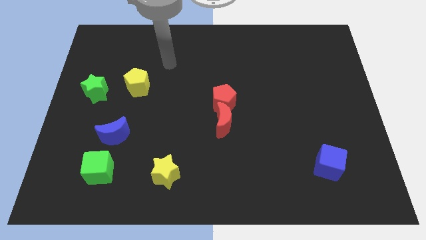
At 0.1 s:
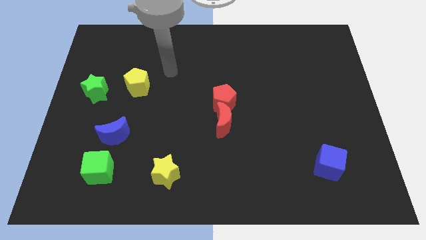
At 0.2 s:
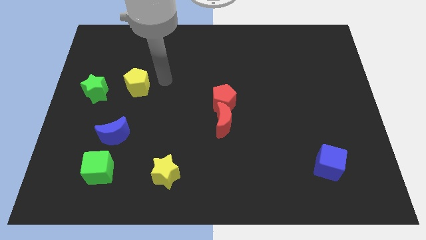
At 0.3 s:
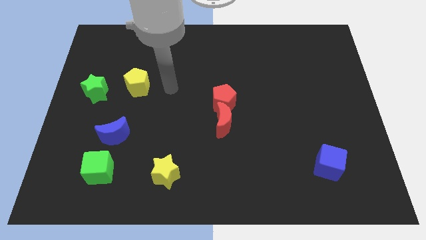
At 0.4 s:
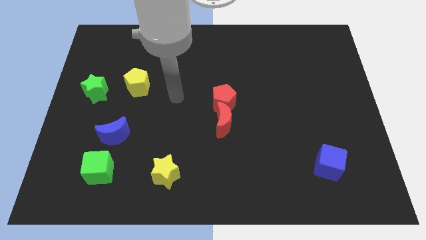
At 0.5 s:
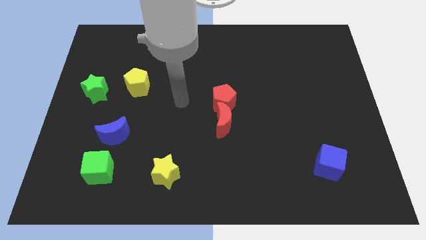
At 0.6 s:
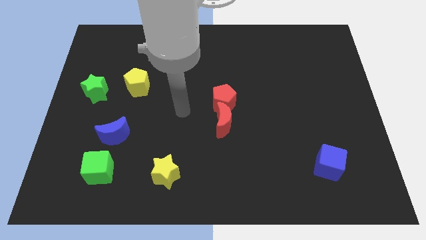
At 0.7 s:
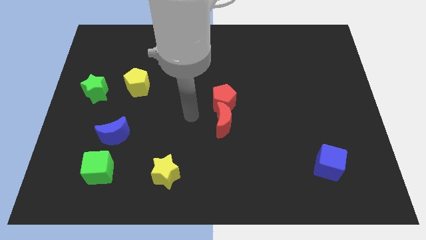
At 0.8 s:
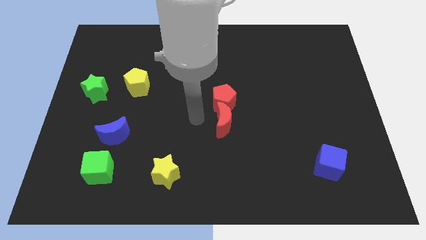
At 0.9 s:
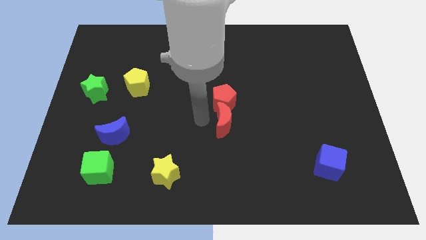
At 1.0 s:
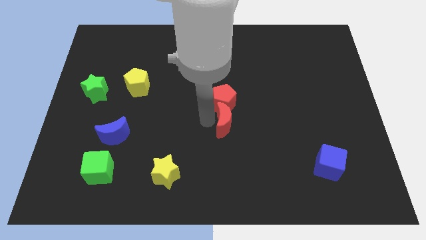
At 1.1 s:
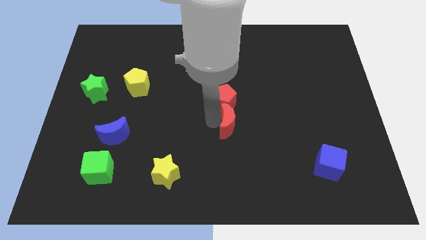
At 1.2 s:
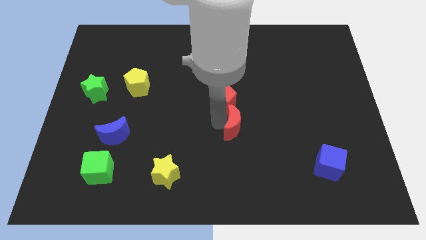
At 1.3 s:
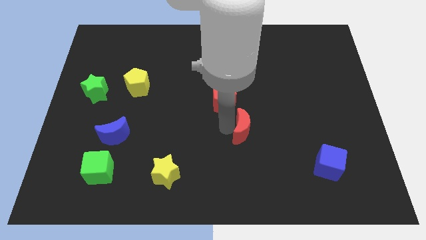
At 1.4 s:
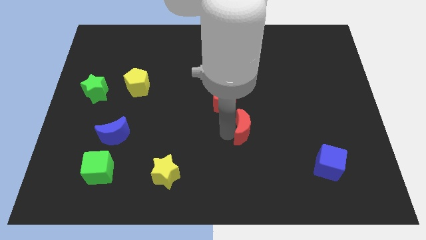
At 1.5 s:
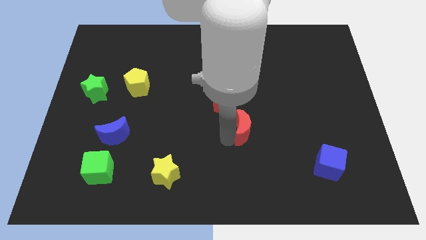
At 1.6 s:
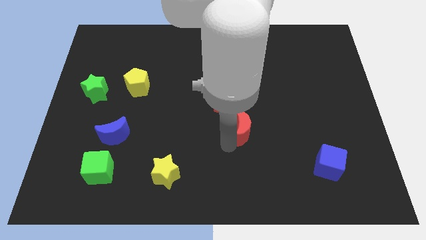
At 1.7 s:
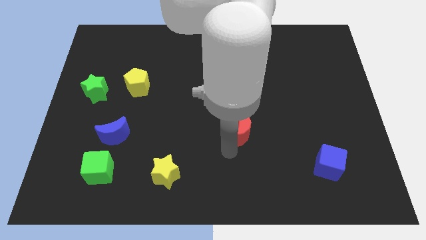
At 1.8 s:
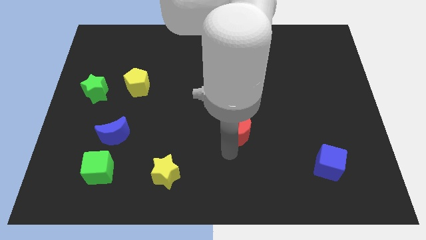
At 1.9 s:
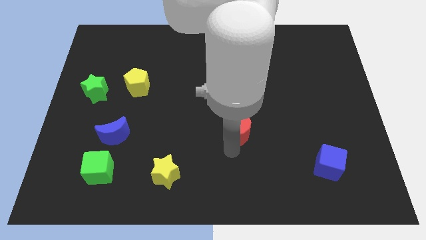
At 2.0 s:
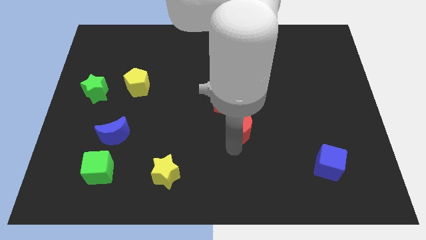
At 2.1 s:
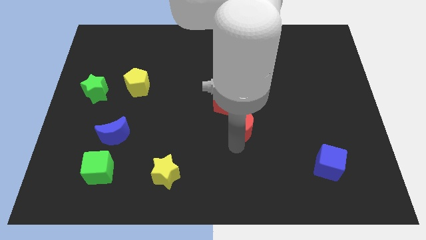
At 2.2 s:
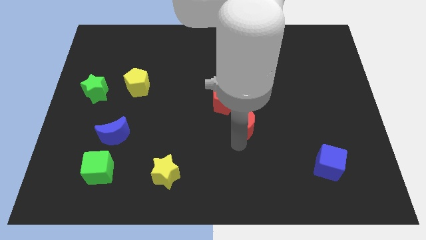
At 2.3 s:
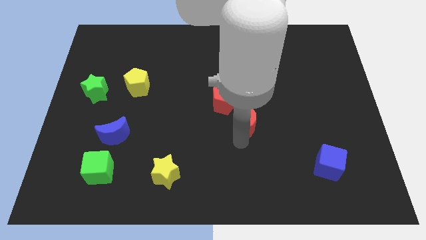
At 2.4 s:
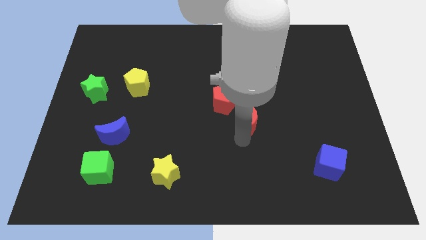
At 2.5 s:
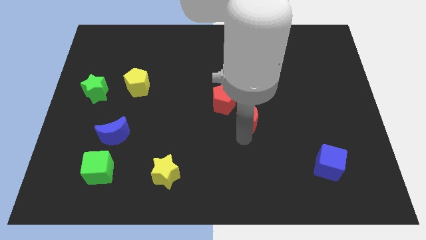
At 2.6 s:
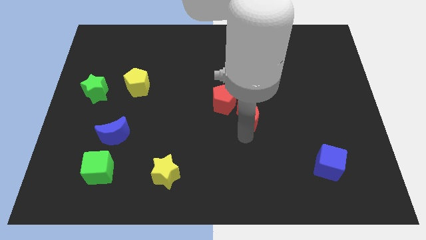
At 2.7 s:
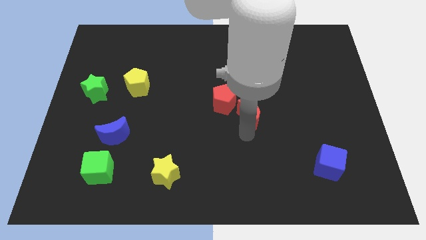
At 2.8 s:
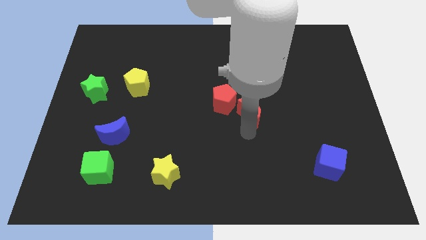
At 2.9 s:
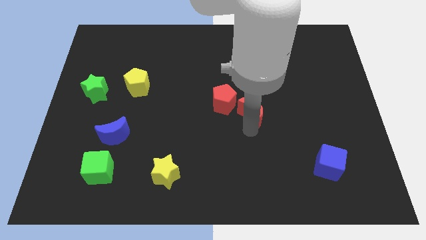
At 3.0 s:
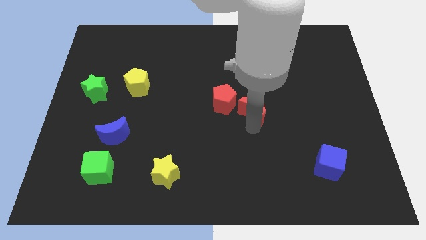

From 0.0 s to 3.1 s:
slightly push the red moon diagonally up and to the right

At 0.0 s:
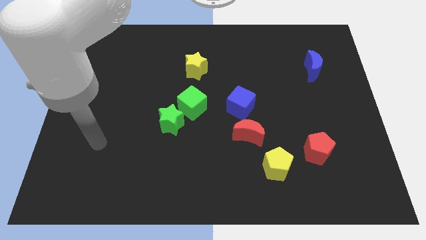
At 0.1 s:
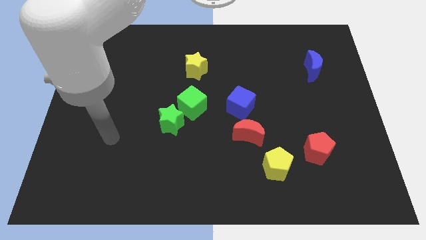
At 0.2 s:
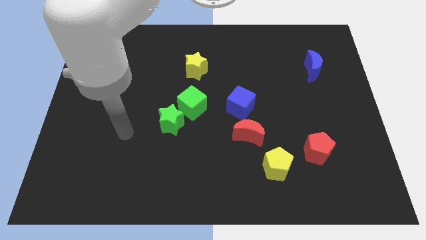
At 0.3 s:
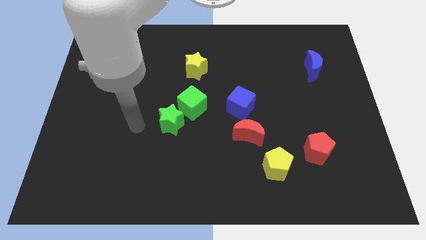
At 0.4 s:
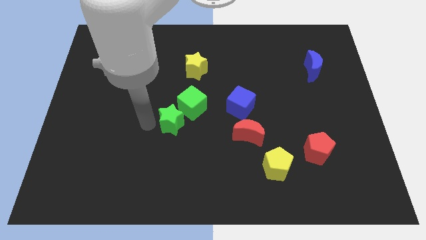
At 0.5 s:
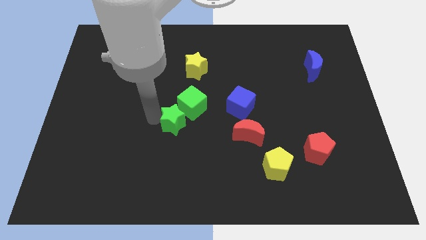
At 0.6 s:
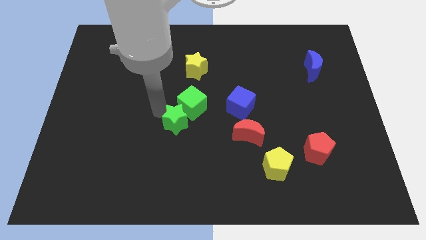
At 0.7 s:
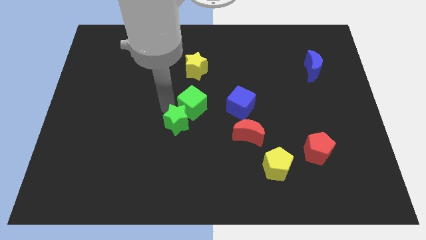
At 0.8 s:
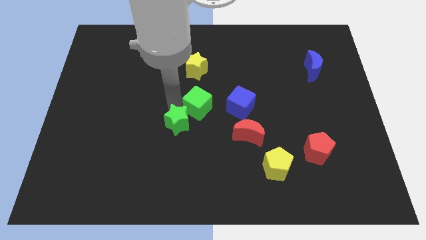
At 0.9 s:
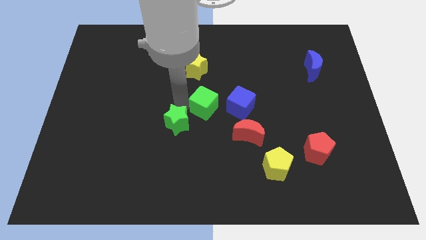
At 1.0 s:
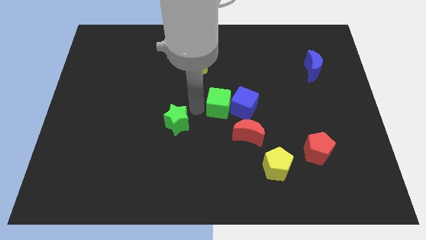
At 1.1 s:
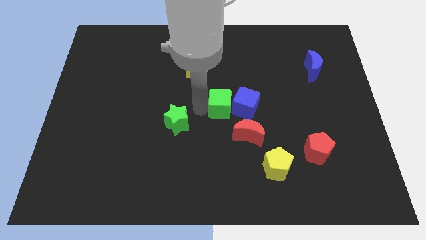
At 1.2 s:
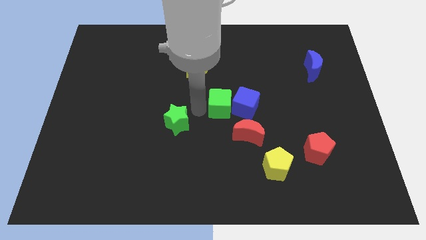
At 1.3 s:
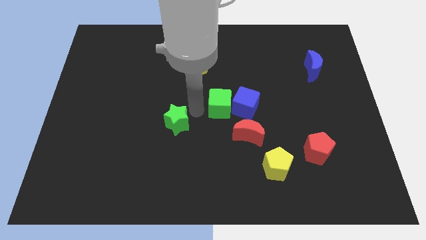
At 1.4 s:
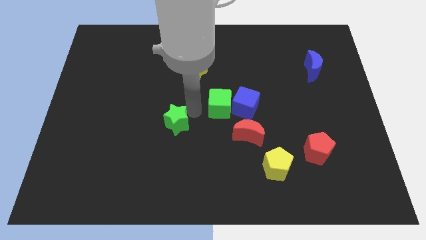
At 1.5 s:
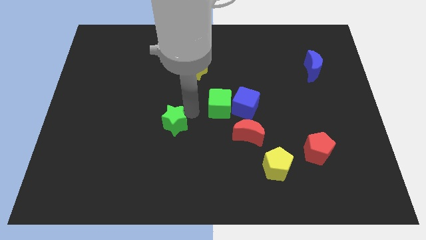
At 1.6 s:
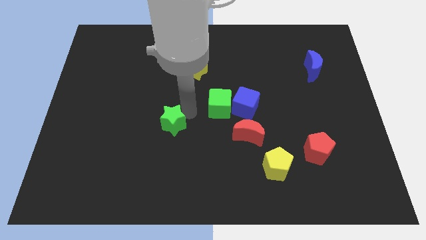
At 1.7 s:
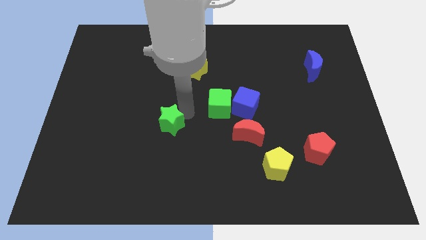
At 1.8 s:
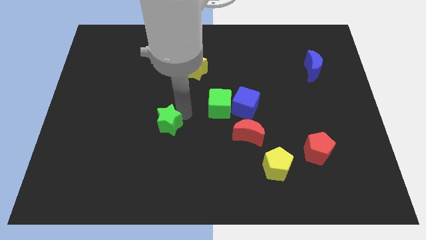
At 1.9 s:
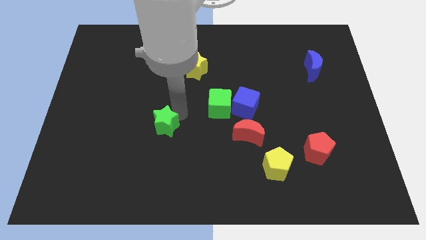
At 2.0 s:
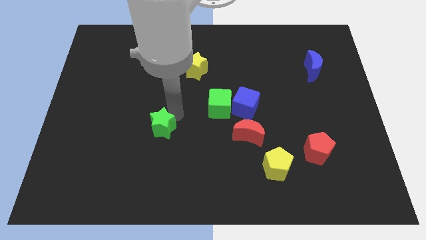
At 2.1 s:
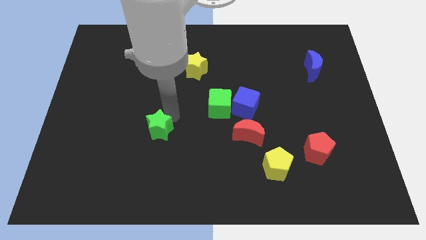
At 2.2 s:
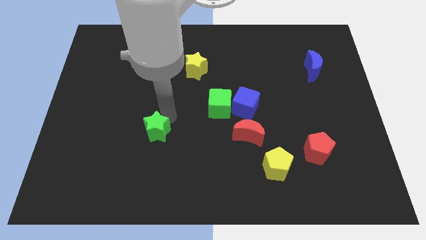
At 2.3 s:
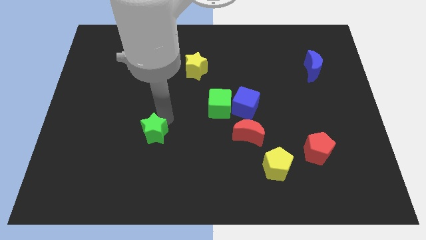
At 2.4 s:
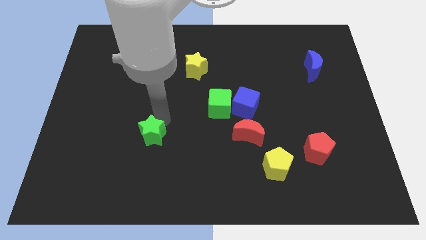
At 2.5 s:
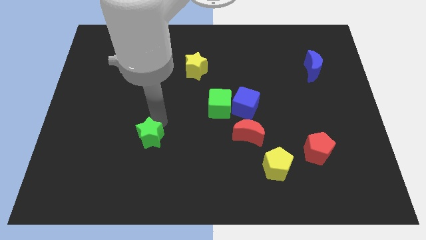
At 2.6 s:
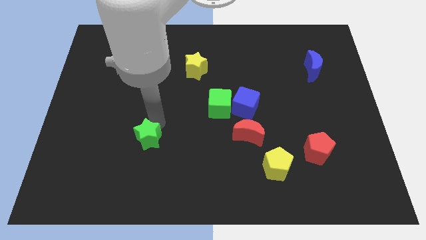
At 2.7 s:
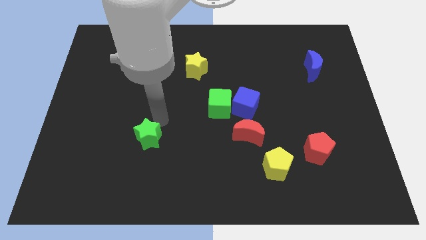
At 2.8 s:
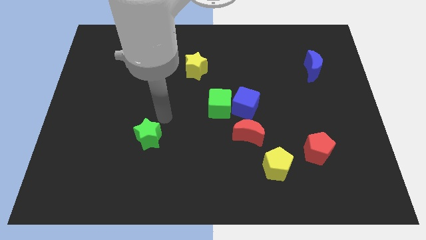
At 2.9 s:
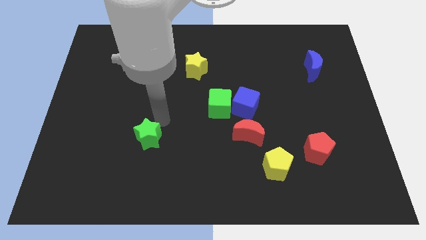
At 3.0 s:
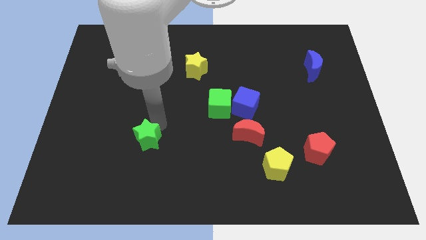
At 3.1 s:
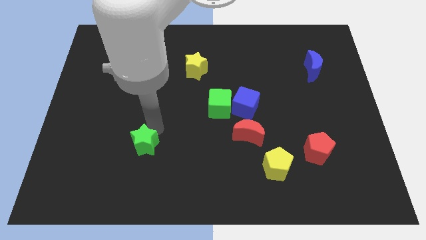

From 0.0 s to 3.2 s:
move the green star a little bit diagonally downwards and left

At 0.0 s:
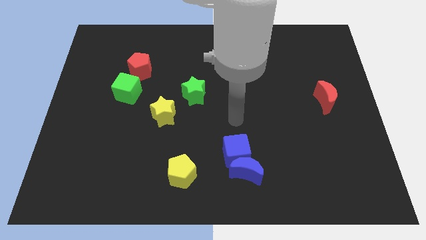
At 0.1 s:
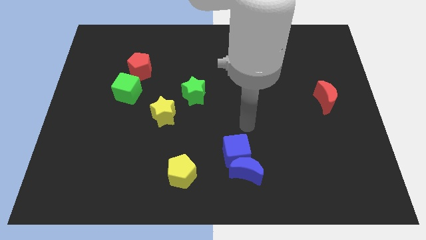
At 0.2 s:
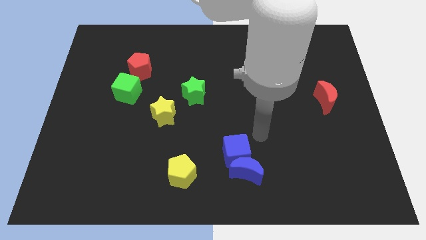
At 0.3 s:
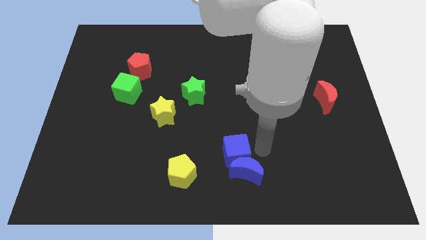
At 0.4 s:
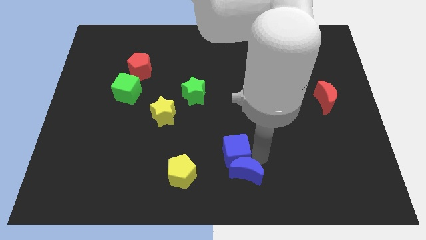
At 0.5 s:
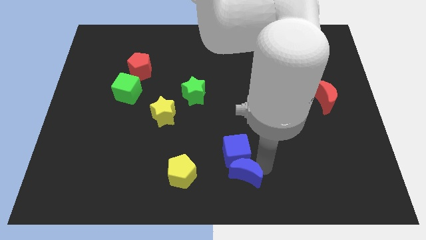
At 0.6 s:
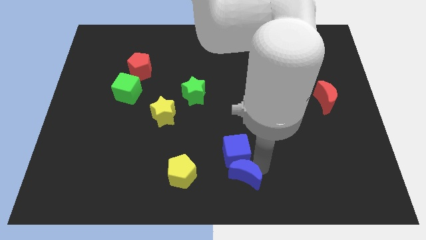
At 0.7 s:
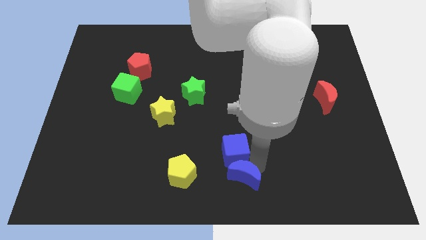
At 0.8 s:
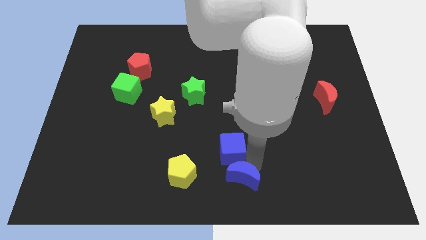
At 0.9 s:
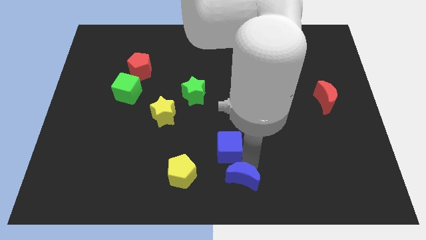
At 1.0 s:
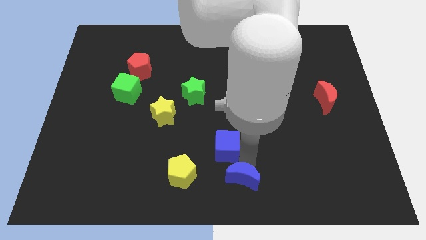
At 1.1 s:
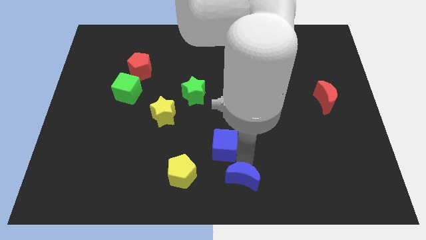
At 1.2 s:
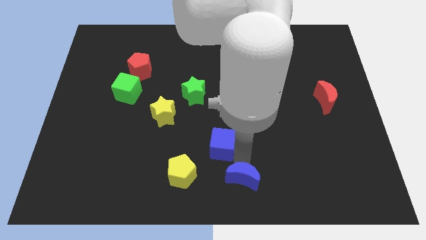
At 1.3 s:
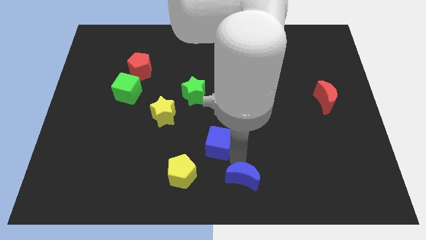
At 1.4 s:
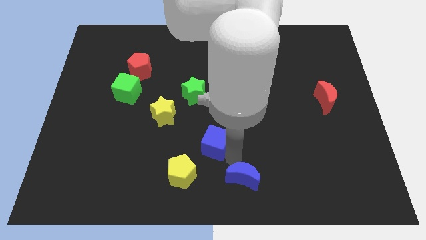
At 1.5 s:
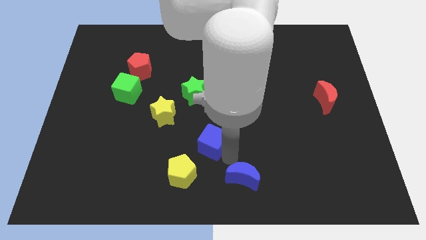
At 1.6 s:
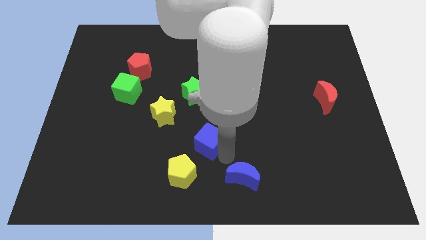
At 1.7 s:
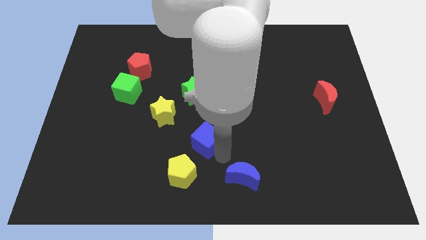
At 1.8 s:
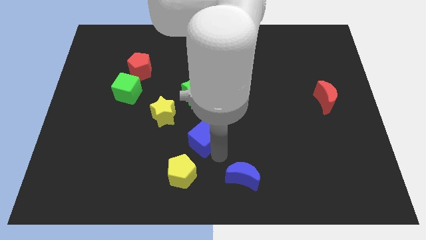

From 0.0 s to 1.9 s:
move the blue cube up and to the left diagonally a little

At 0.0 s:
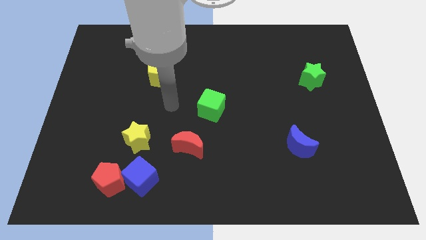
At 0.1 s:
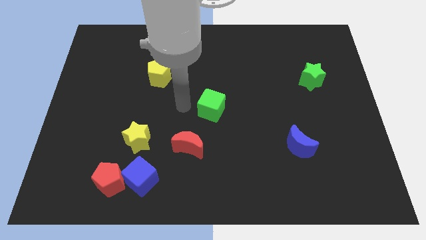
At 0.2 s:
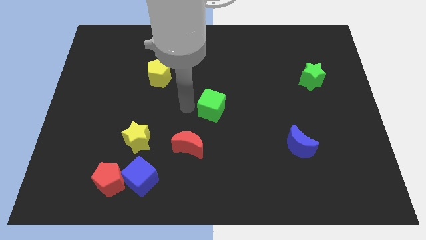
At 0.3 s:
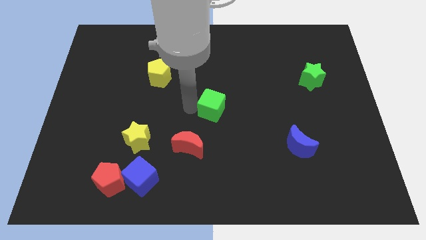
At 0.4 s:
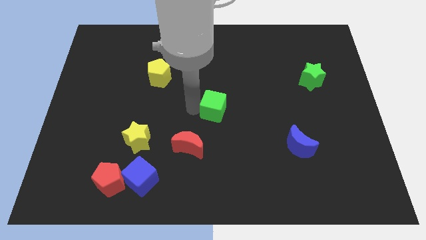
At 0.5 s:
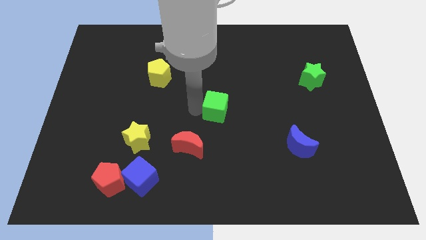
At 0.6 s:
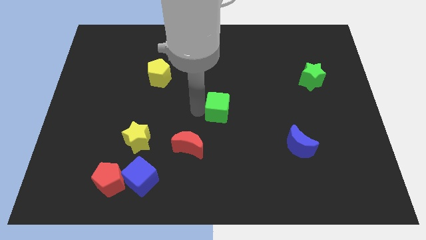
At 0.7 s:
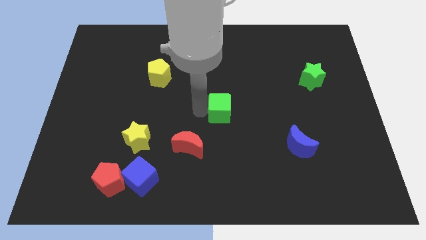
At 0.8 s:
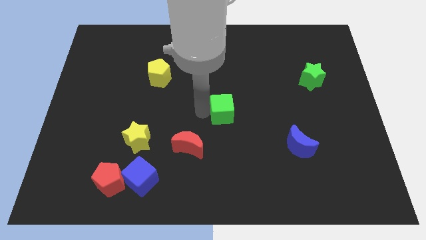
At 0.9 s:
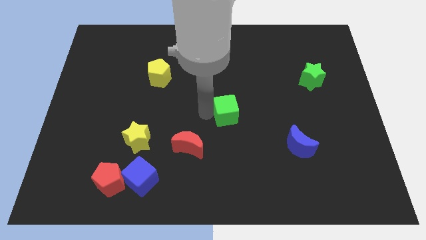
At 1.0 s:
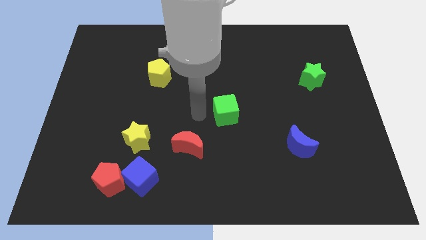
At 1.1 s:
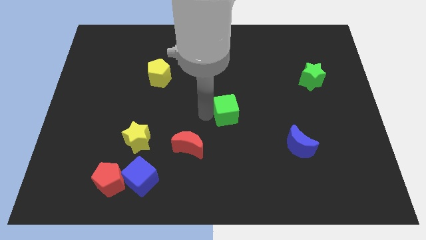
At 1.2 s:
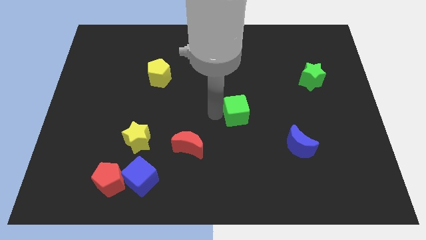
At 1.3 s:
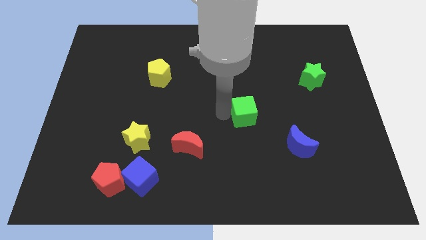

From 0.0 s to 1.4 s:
slightly slide the green cube to the right
